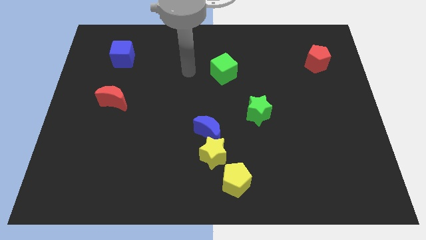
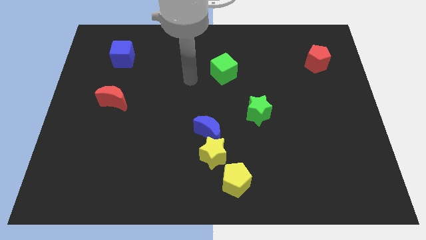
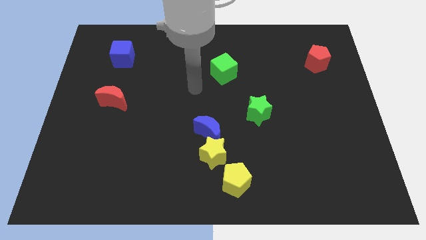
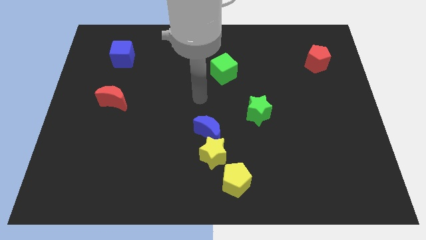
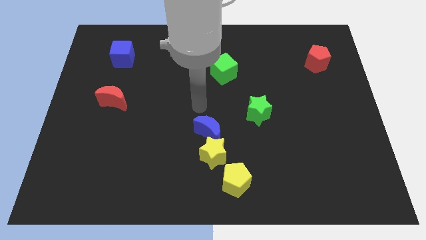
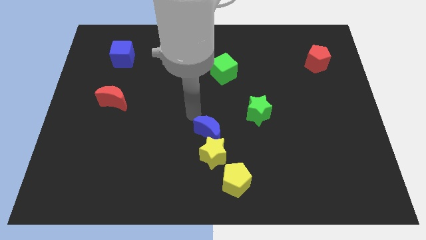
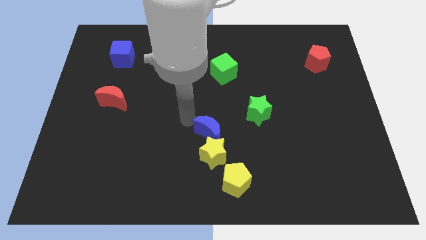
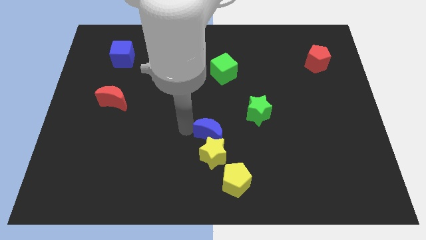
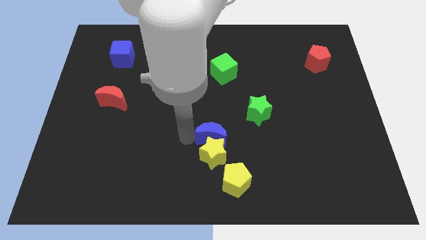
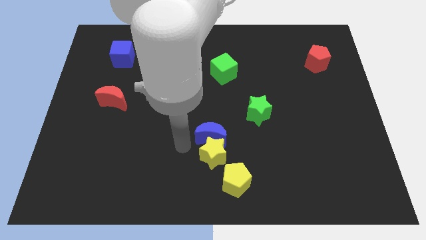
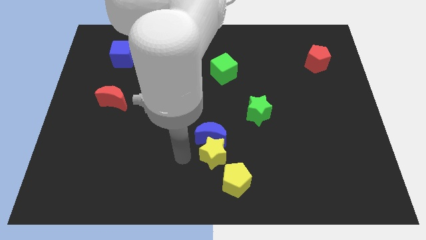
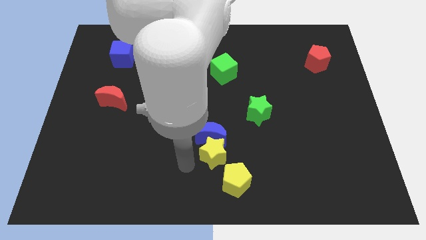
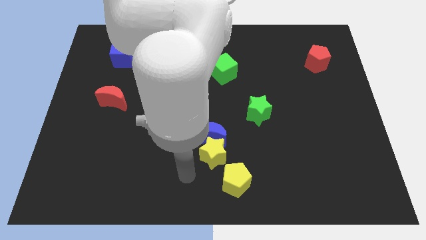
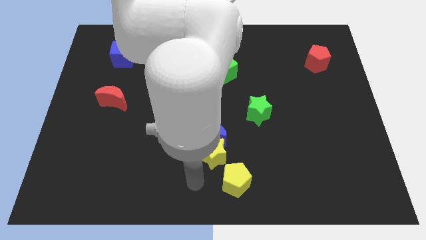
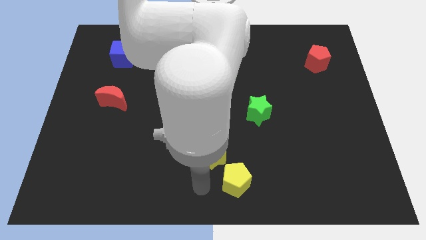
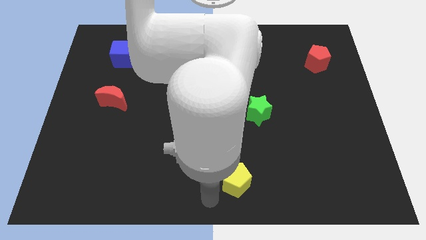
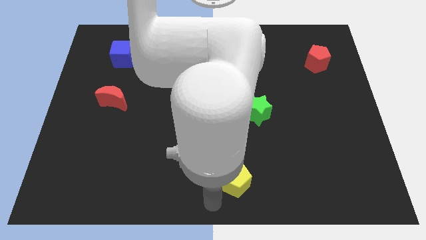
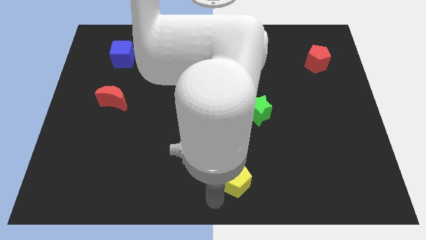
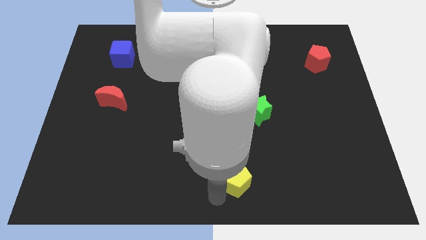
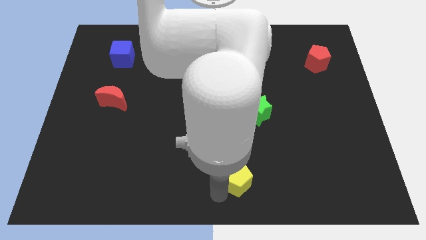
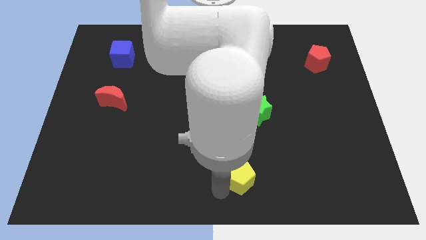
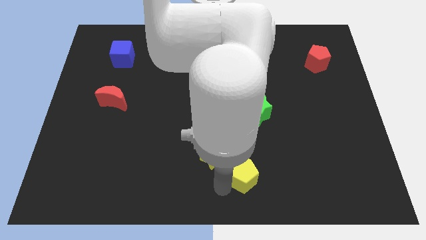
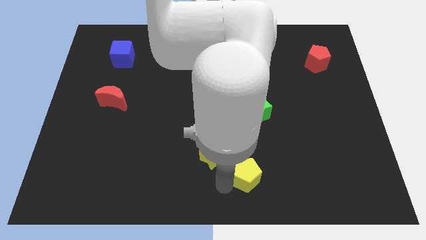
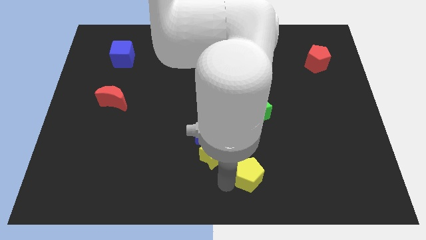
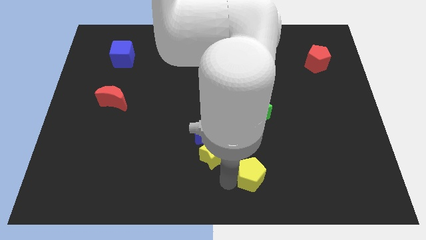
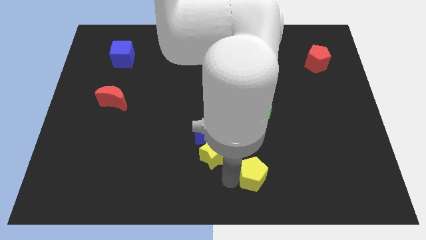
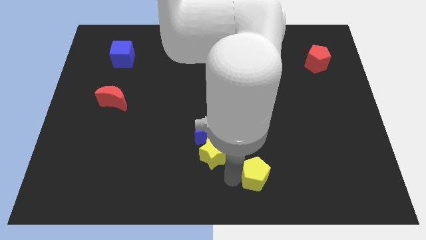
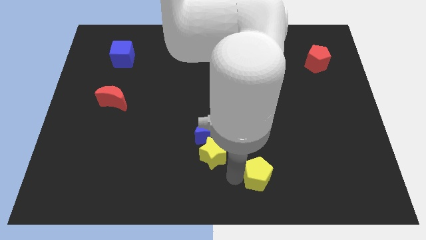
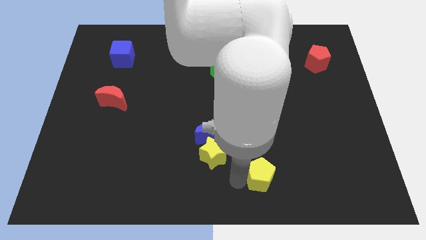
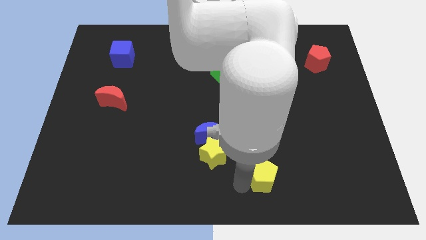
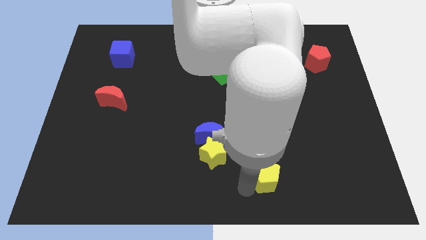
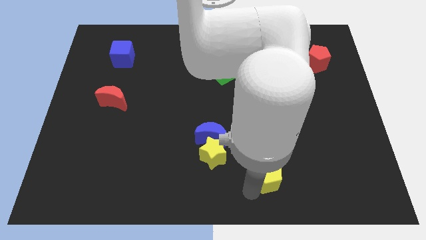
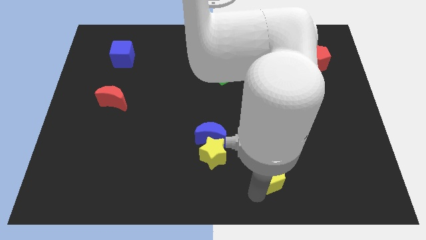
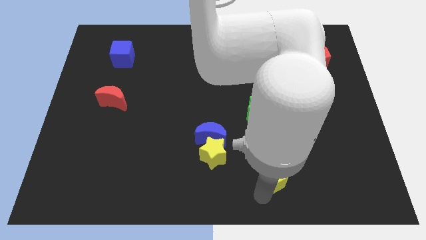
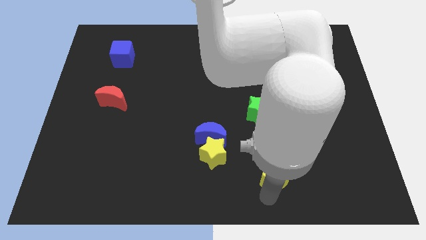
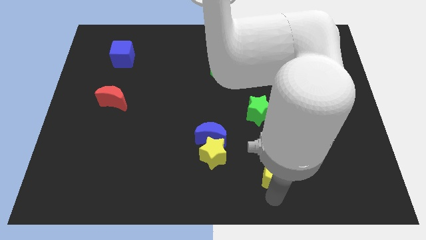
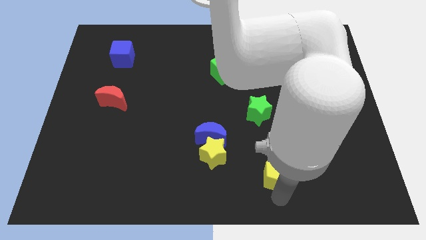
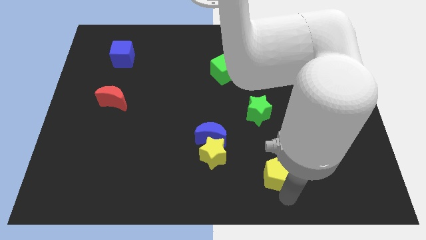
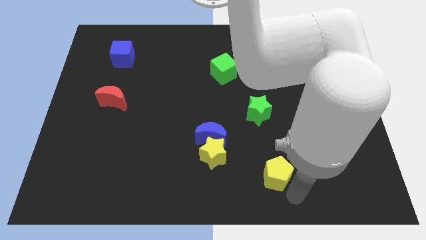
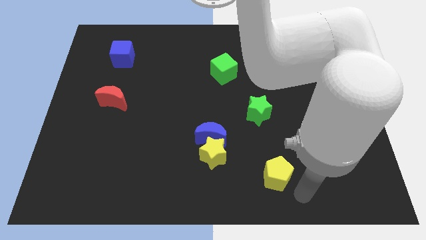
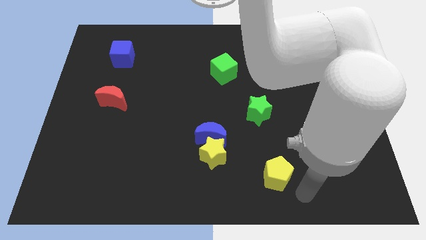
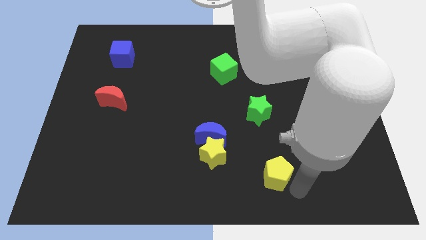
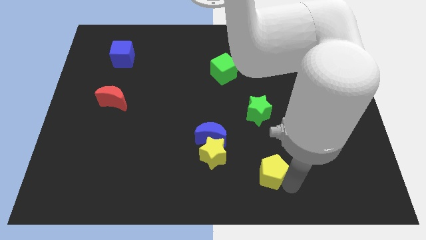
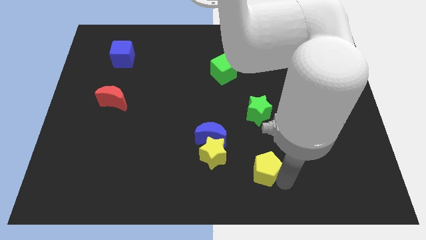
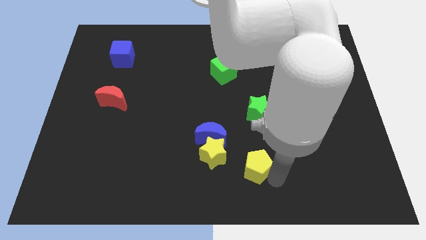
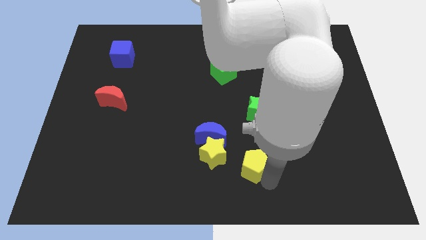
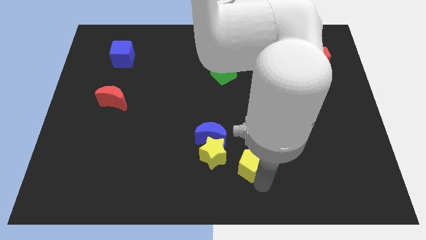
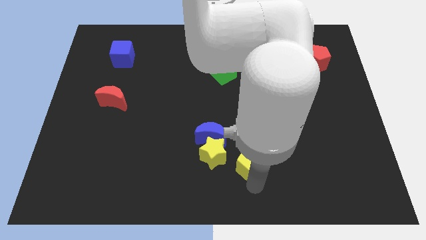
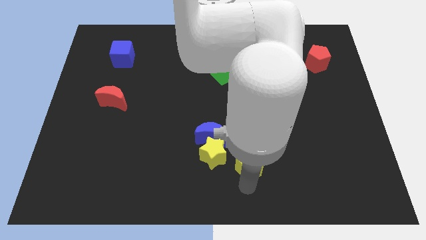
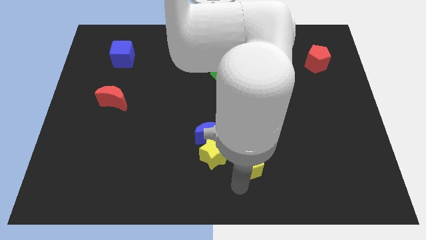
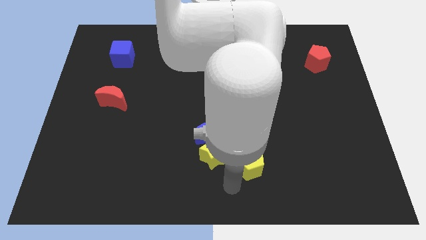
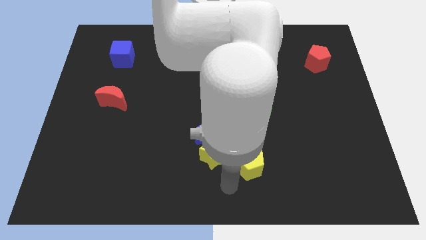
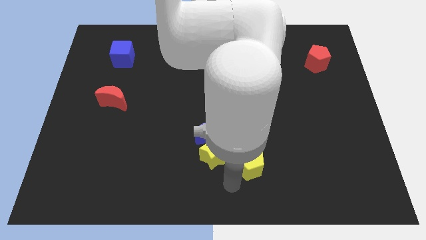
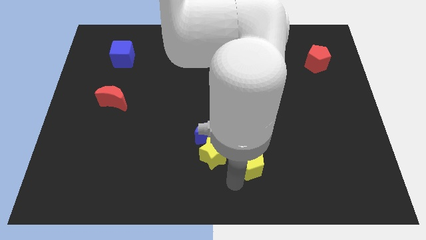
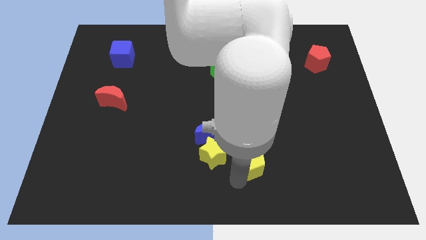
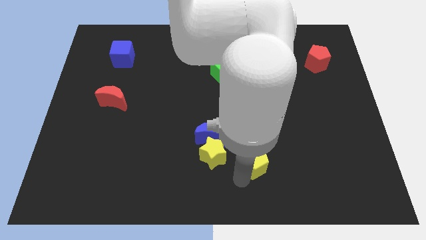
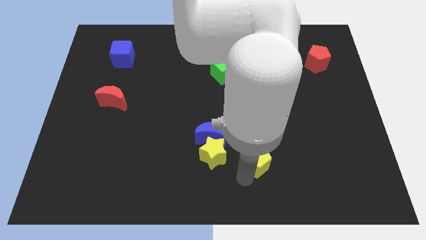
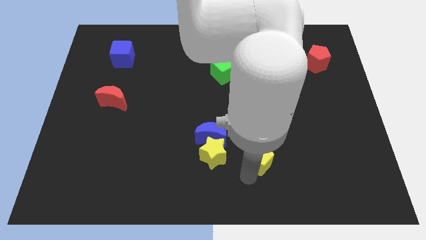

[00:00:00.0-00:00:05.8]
slightly push the yellow pentagon up and right

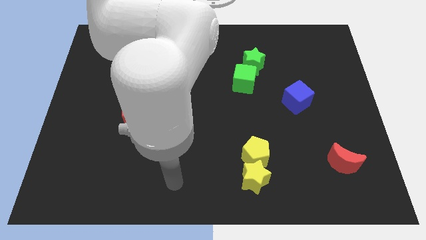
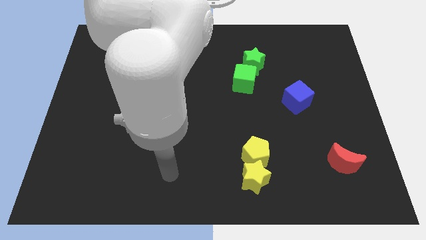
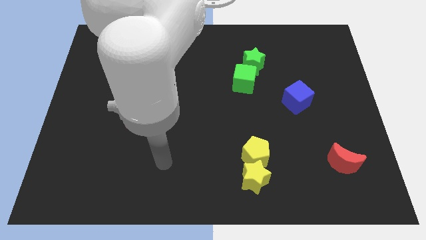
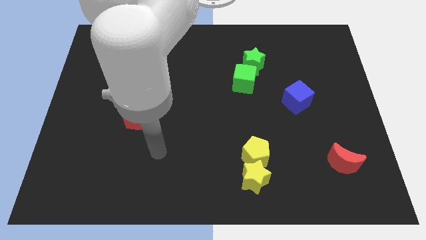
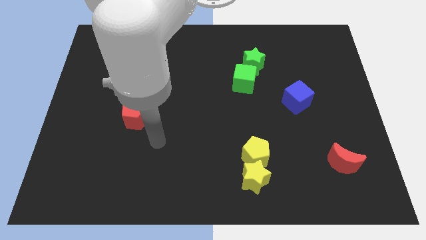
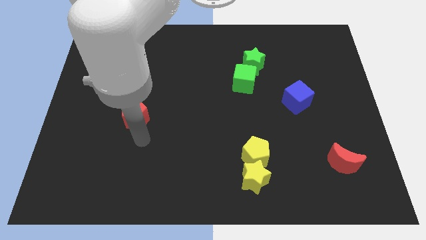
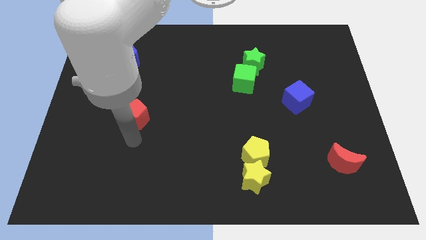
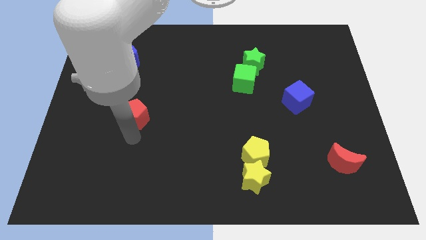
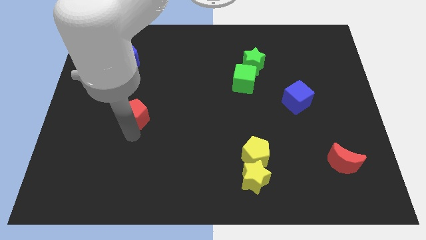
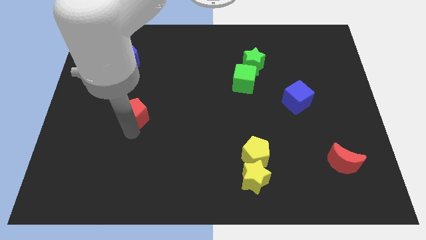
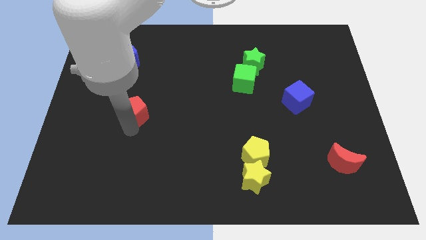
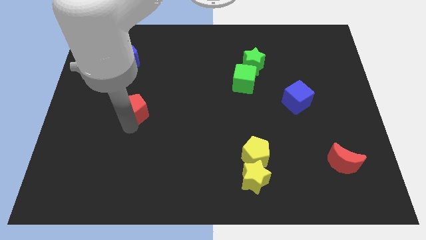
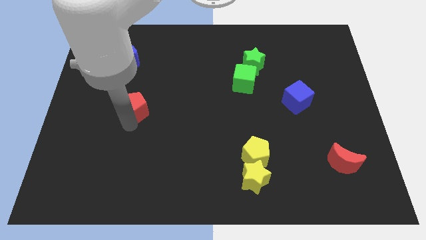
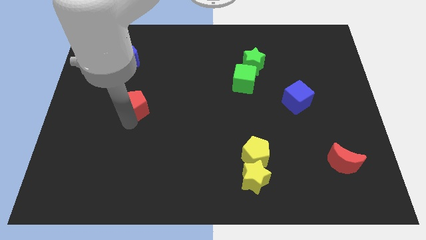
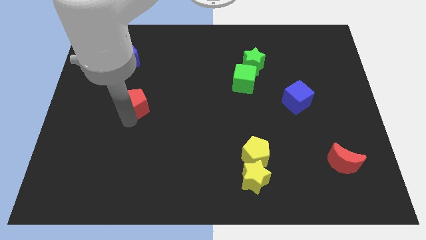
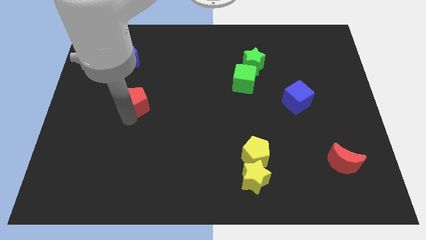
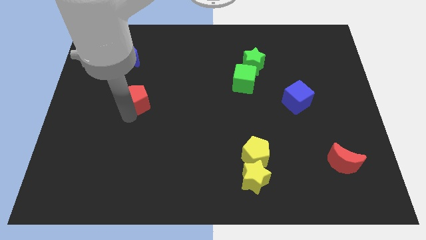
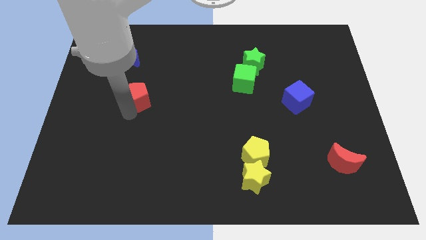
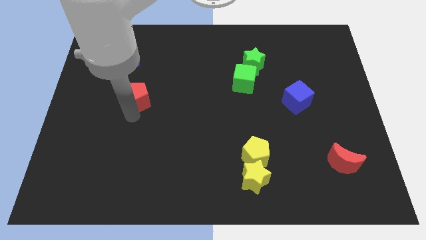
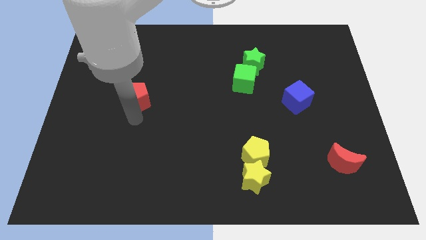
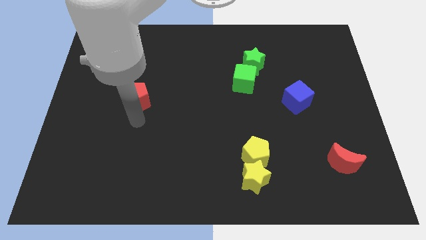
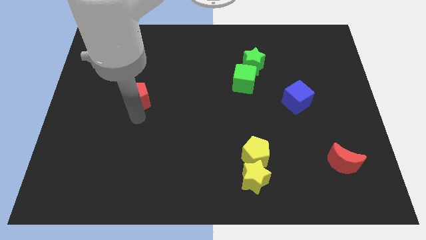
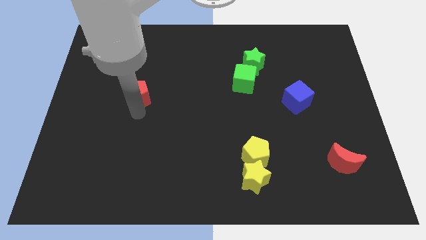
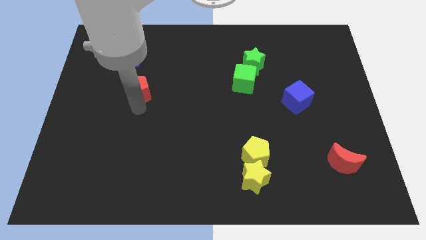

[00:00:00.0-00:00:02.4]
slide the red pentagon upwards a bit

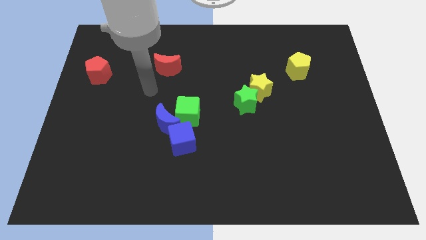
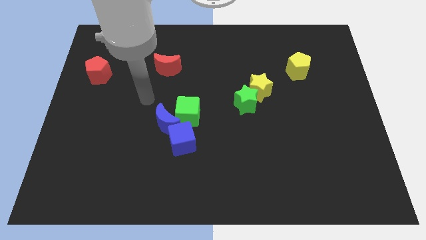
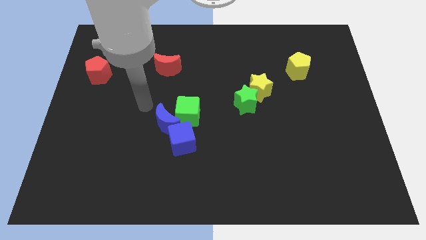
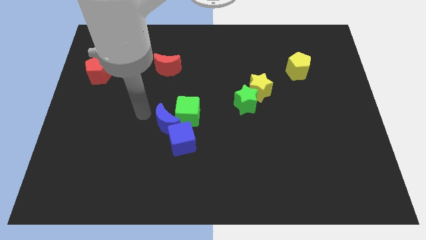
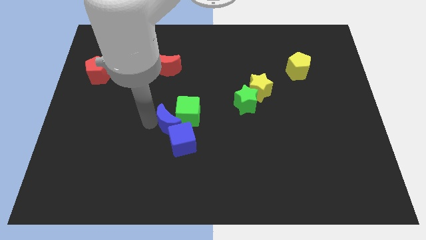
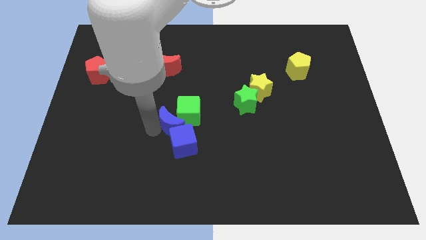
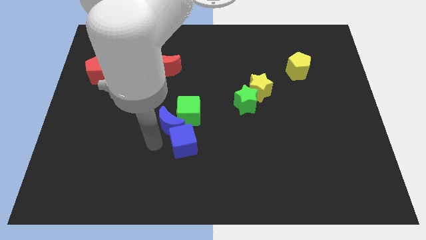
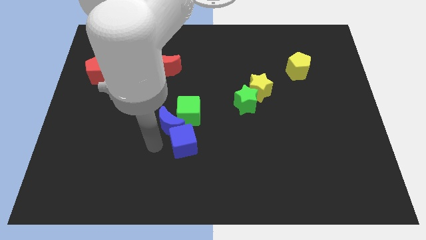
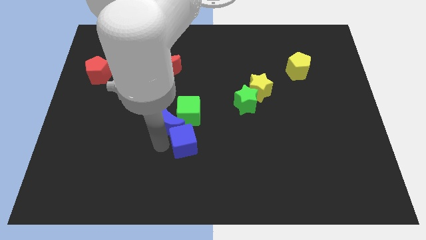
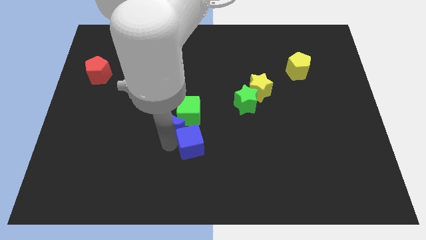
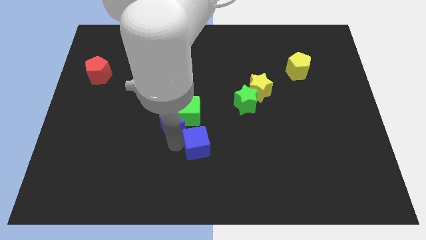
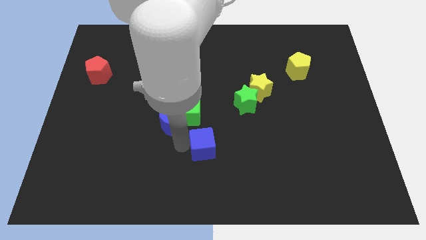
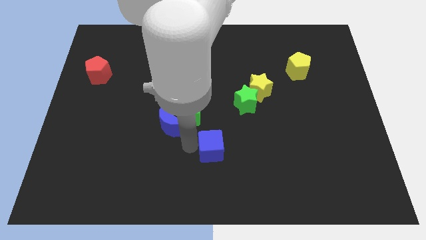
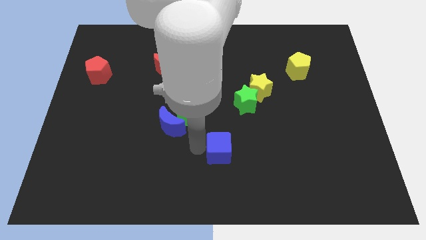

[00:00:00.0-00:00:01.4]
slide the blue cube right a little
